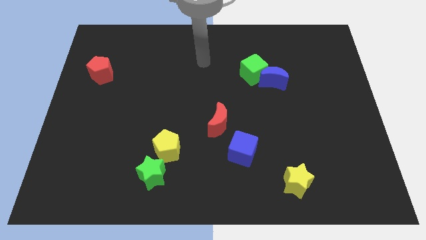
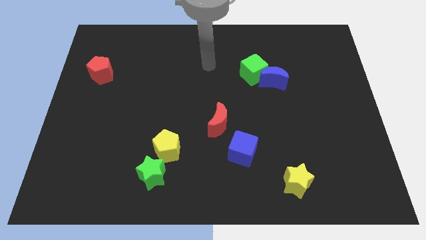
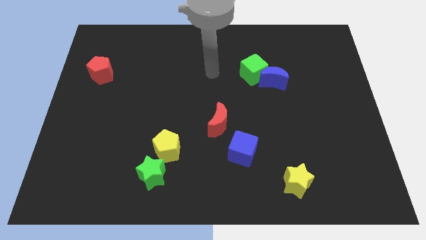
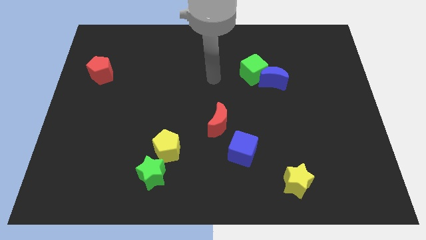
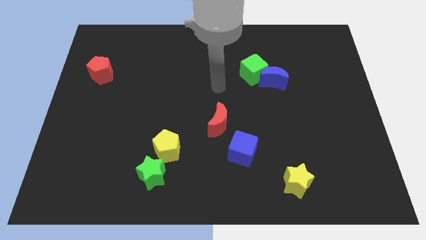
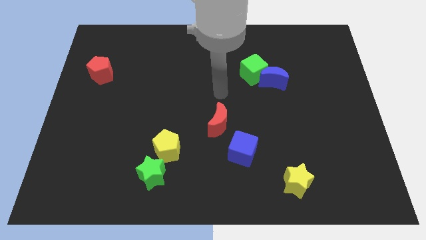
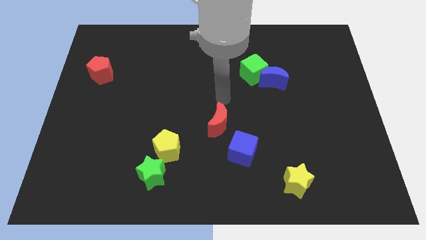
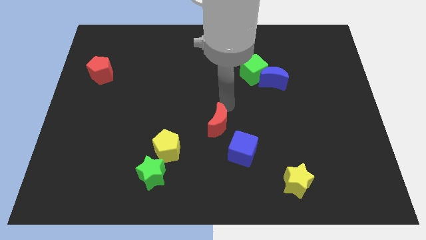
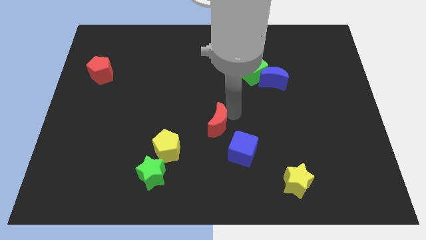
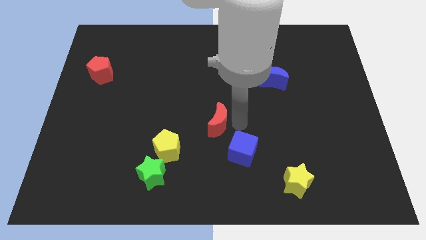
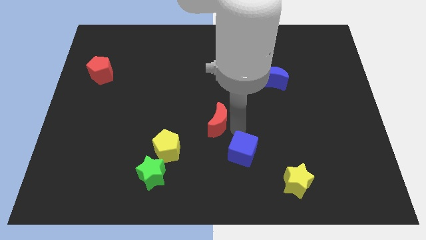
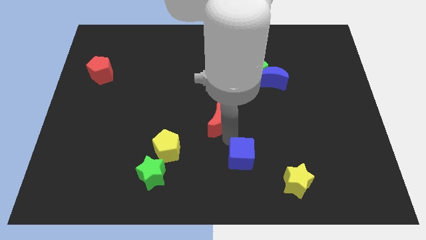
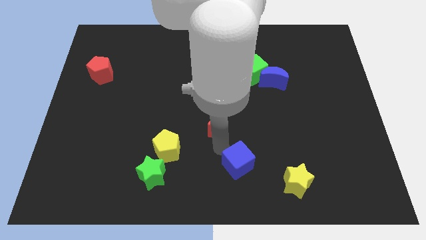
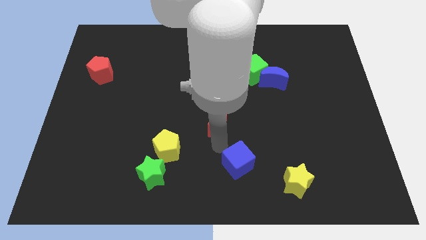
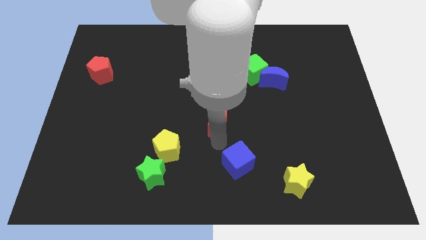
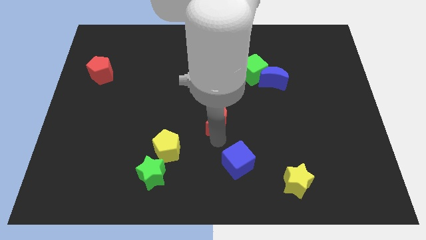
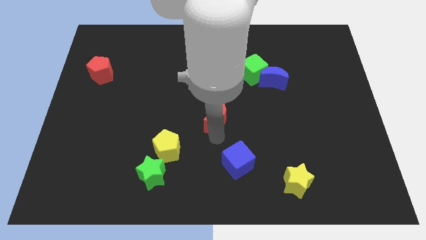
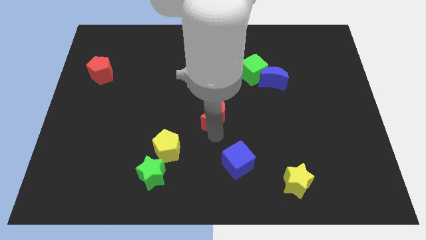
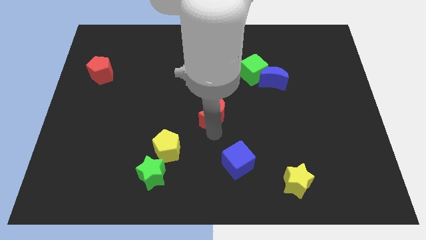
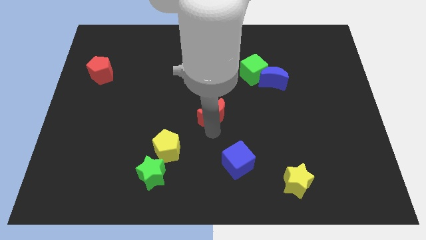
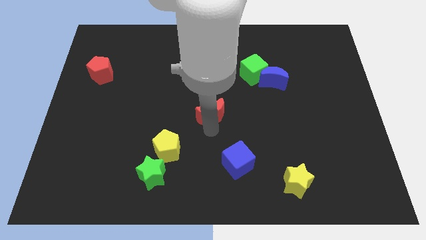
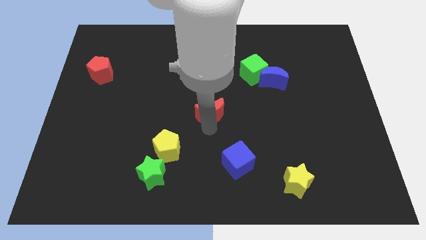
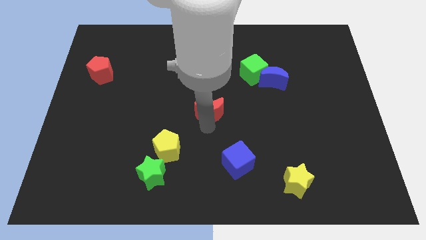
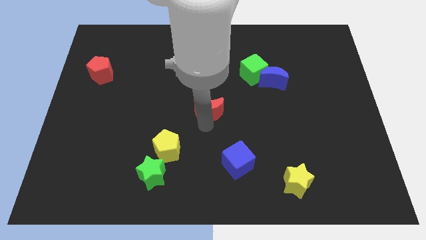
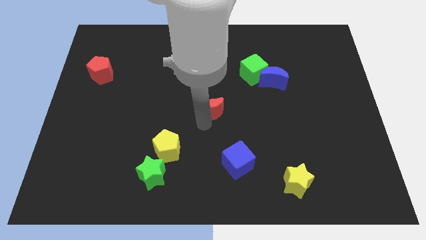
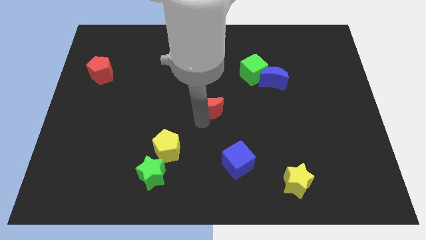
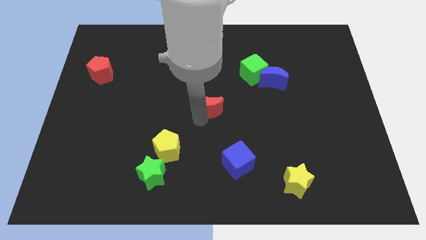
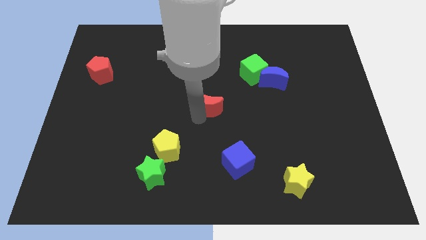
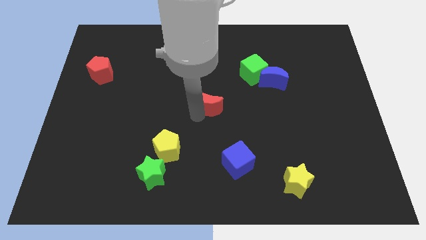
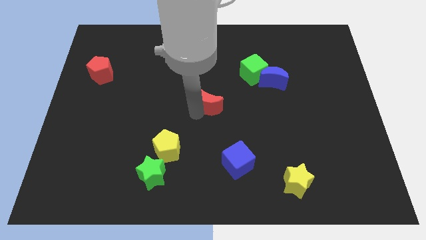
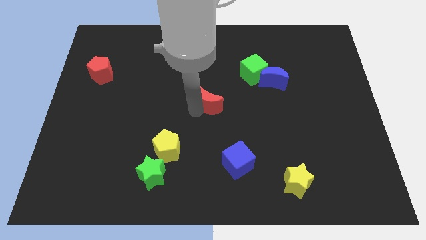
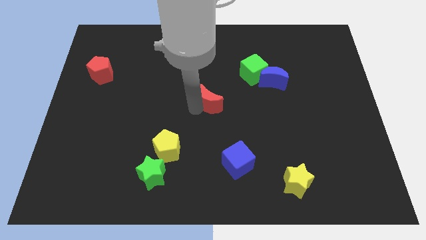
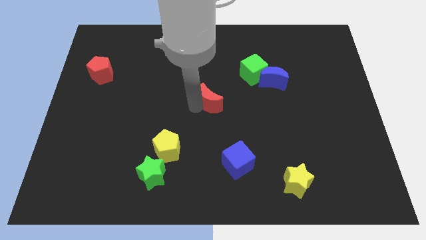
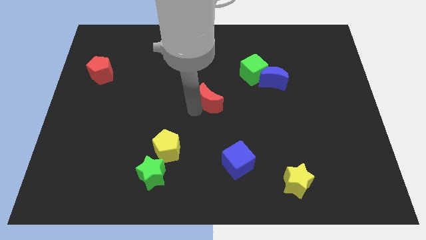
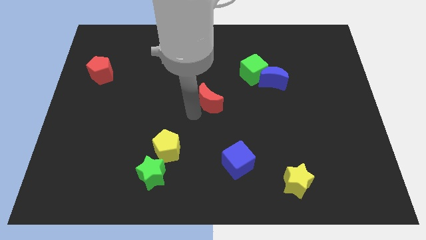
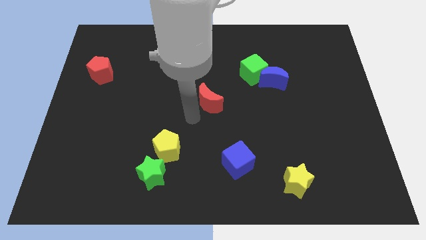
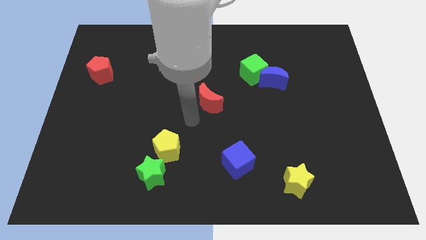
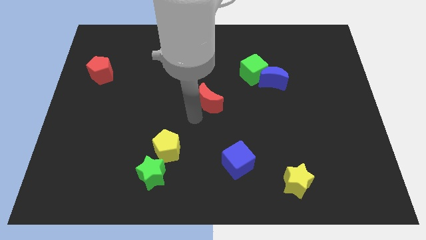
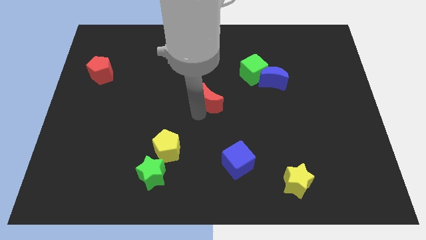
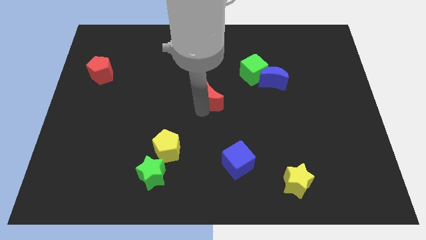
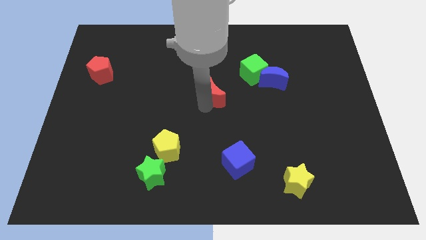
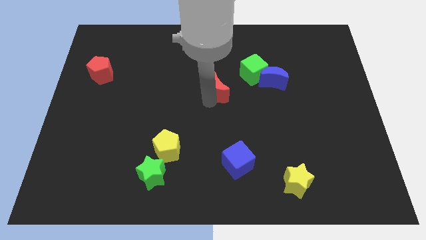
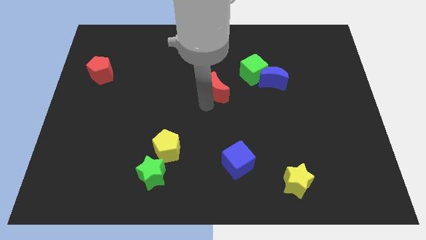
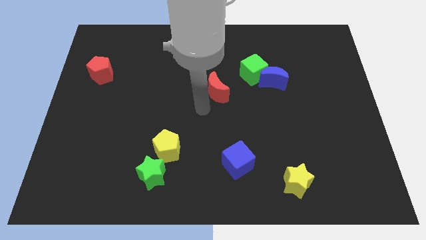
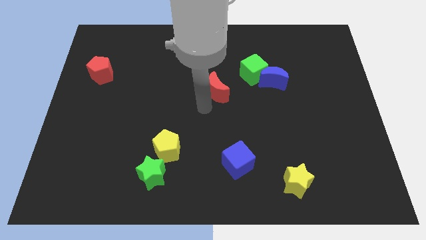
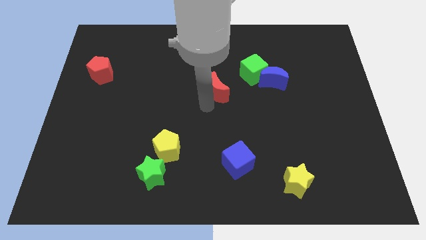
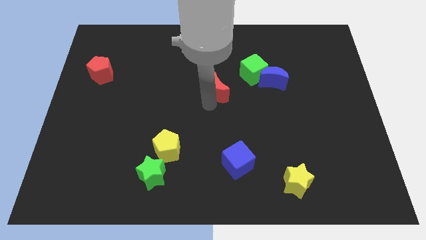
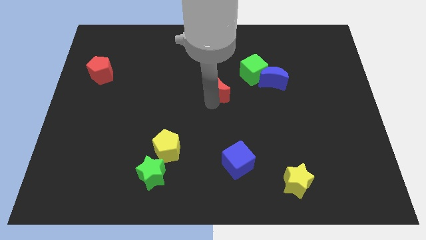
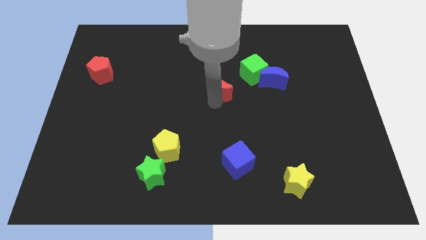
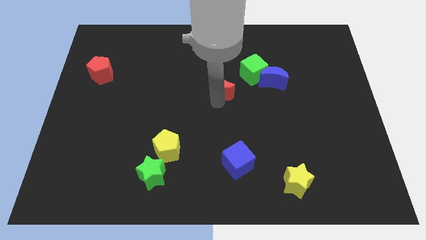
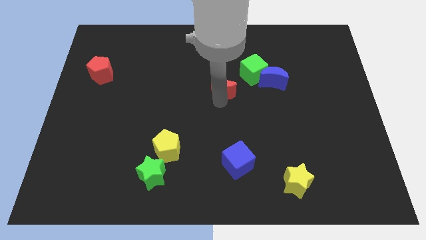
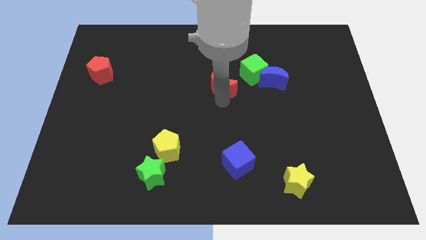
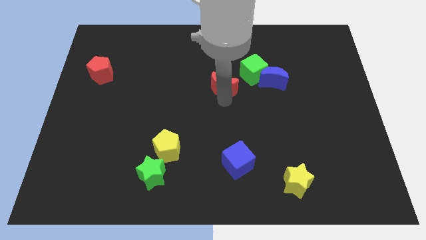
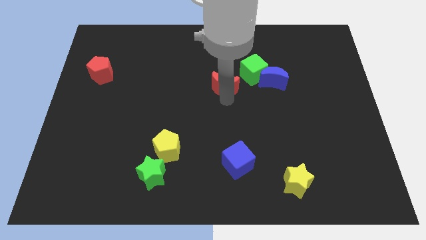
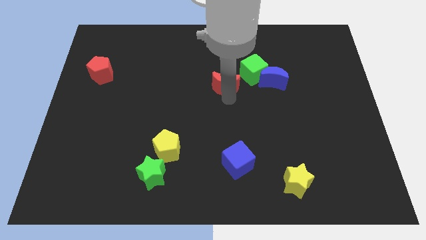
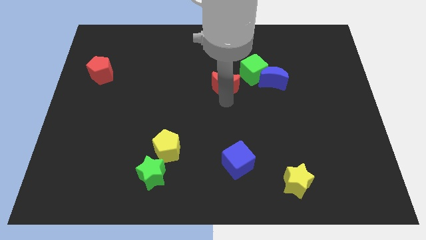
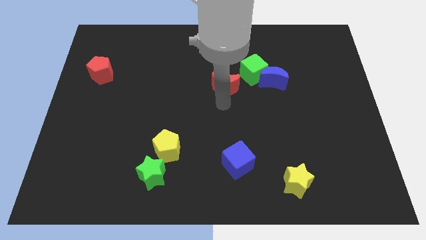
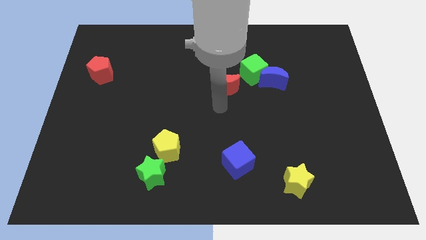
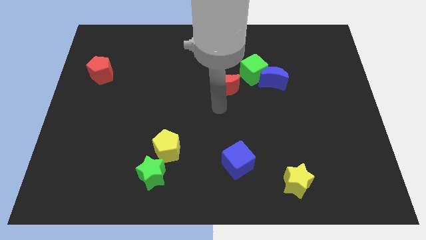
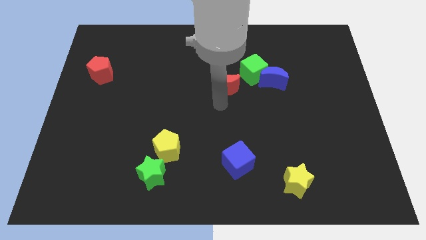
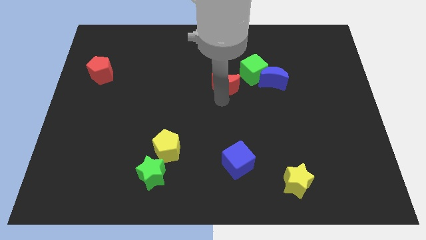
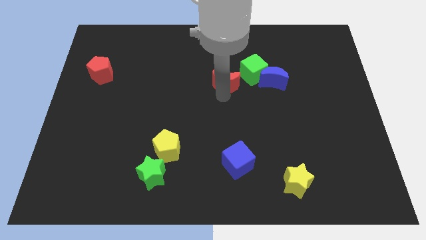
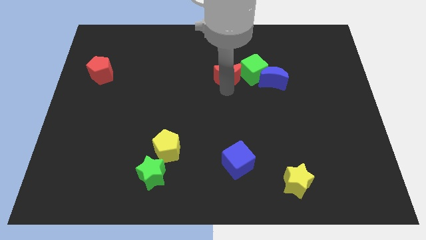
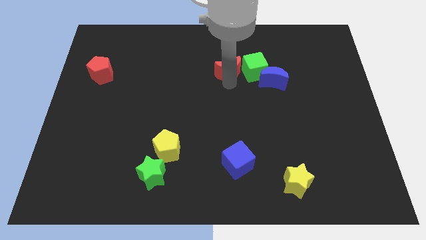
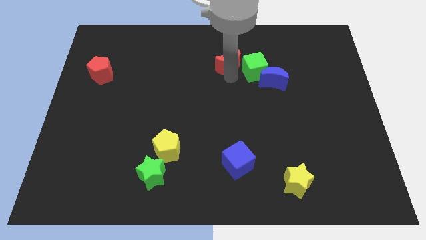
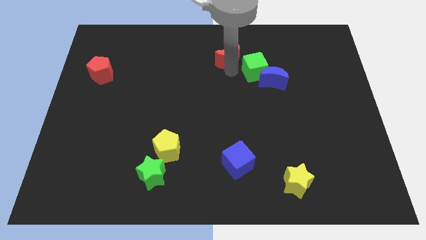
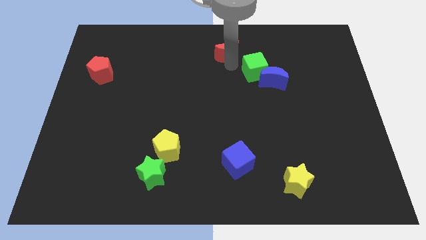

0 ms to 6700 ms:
push the red moon to the top
